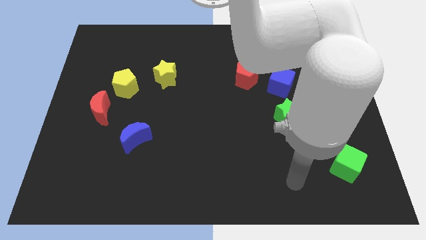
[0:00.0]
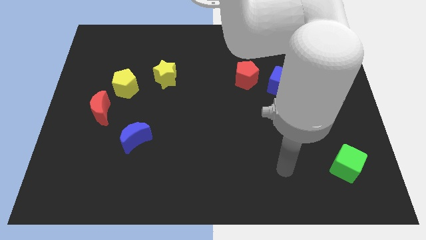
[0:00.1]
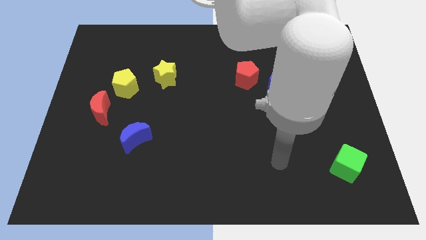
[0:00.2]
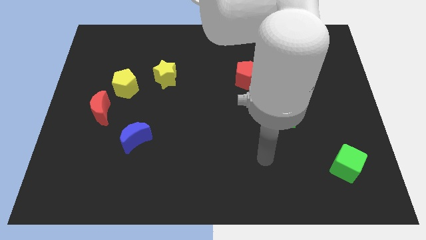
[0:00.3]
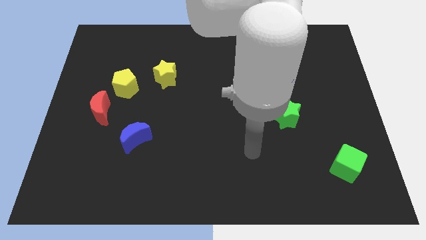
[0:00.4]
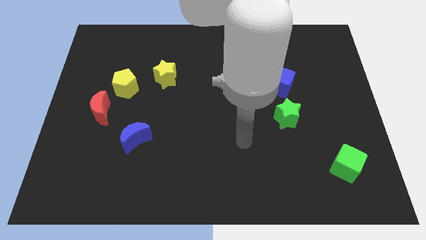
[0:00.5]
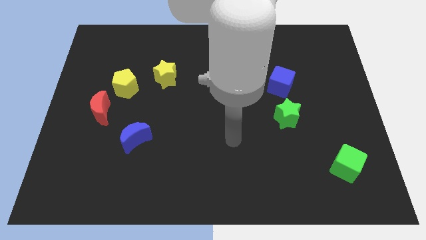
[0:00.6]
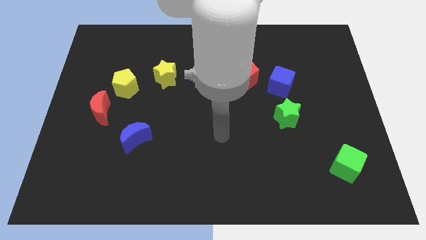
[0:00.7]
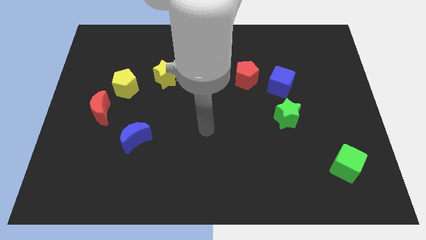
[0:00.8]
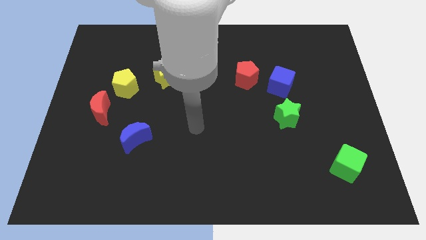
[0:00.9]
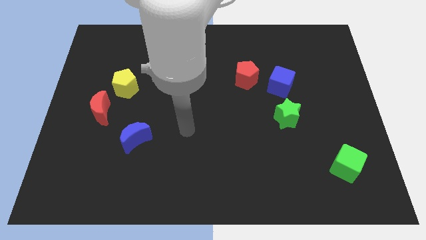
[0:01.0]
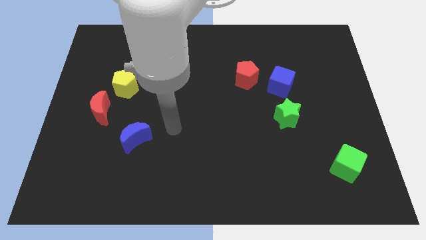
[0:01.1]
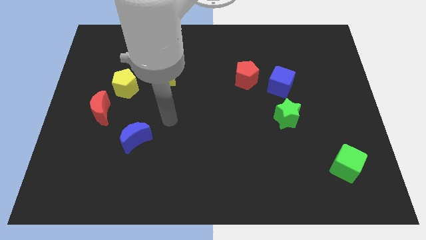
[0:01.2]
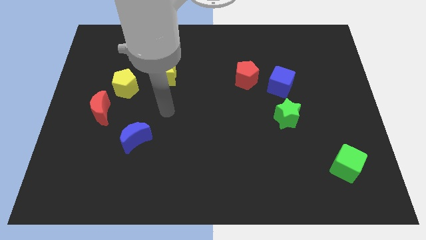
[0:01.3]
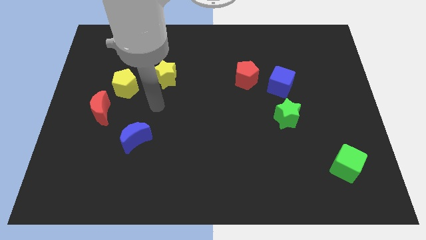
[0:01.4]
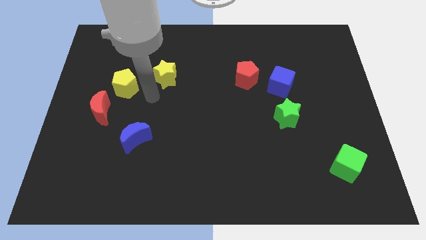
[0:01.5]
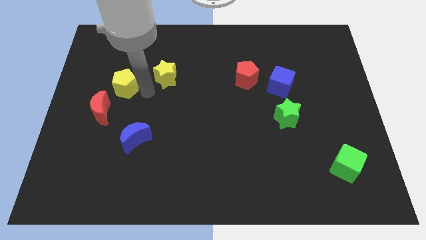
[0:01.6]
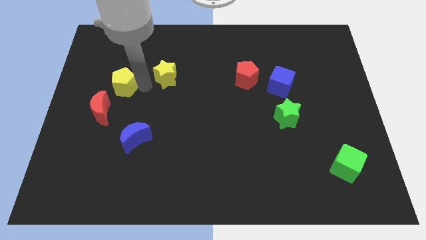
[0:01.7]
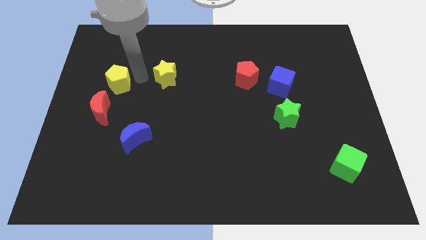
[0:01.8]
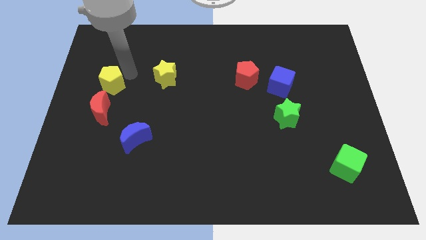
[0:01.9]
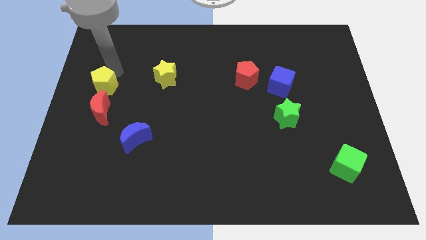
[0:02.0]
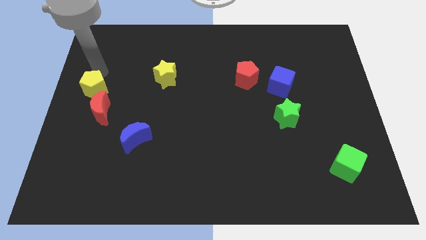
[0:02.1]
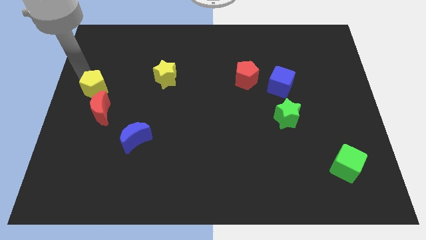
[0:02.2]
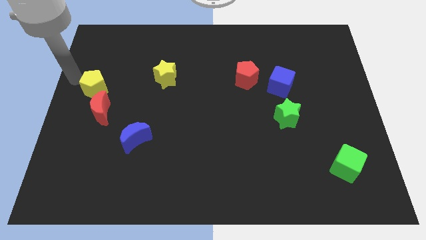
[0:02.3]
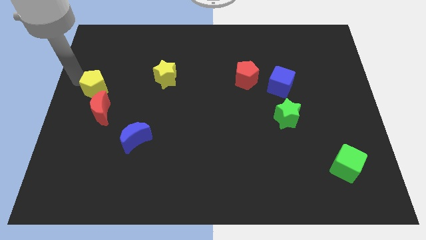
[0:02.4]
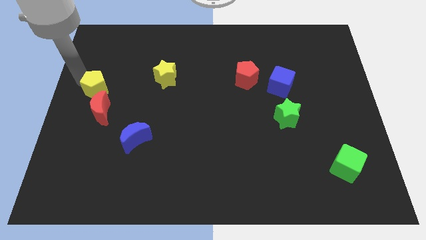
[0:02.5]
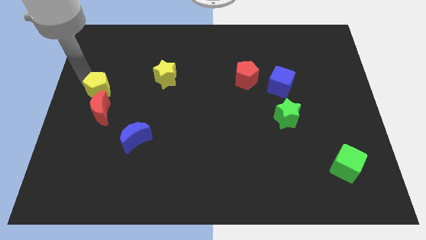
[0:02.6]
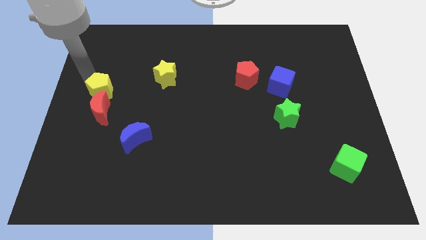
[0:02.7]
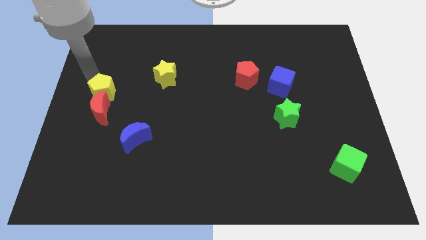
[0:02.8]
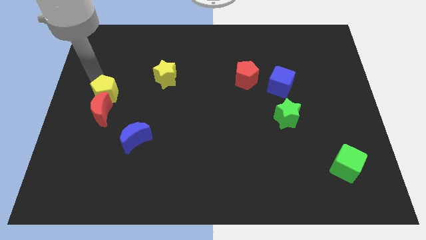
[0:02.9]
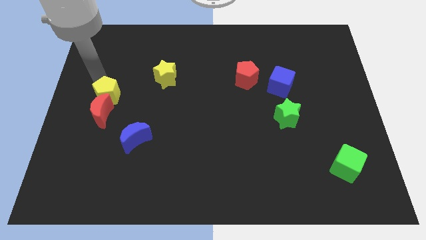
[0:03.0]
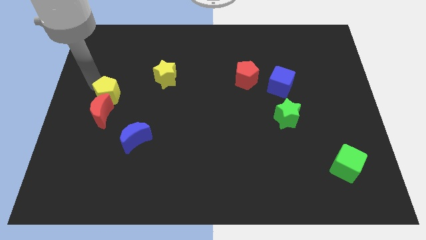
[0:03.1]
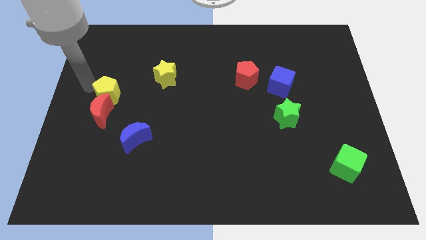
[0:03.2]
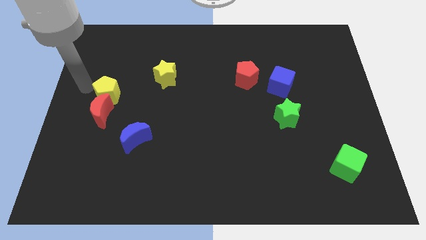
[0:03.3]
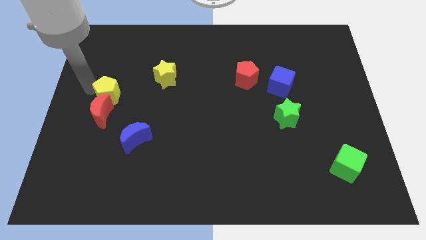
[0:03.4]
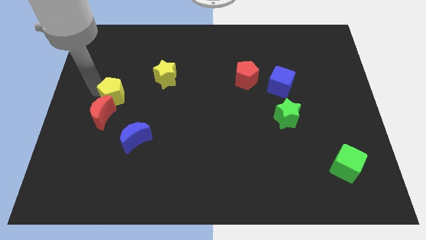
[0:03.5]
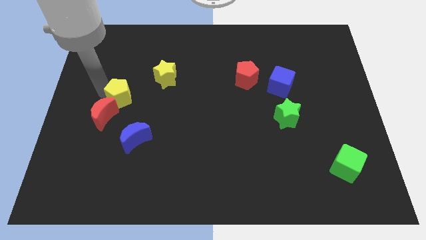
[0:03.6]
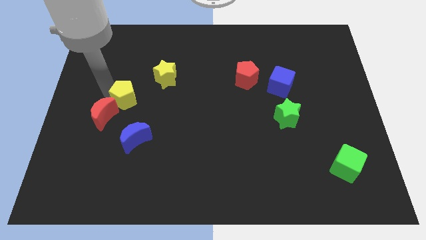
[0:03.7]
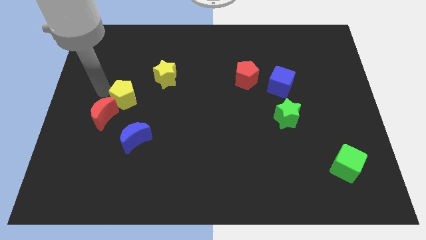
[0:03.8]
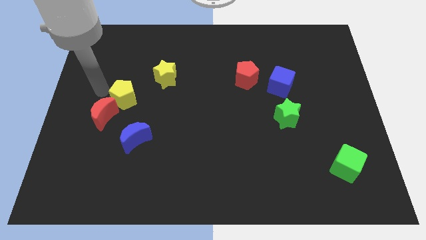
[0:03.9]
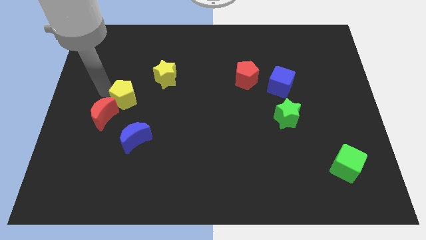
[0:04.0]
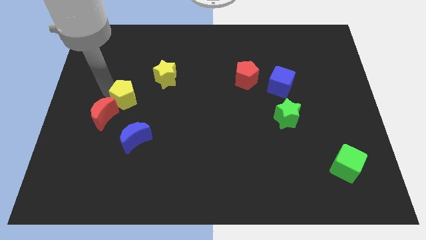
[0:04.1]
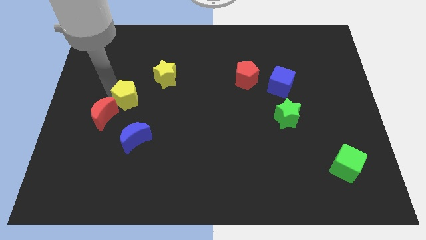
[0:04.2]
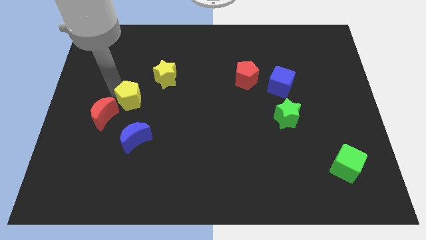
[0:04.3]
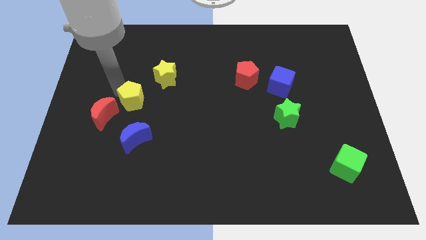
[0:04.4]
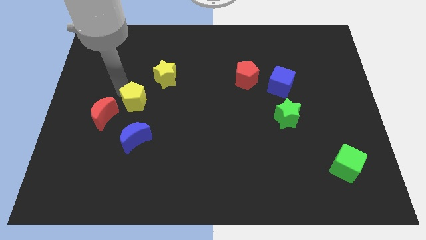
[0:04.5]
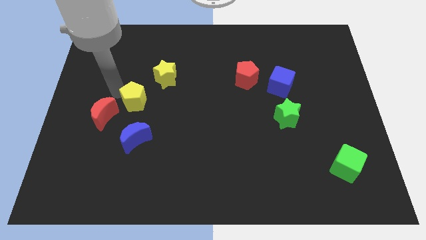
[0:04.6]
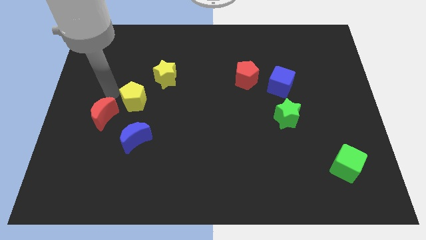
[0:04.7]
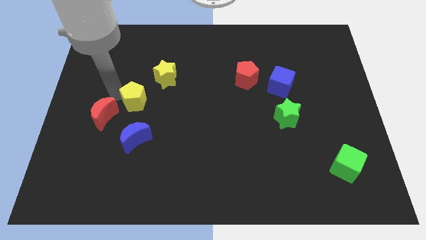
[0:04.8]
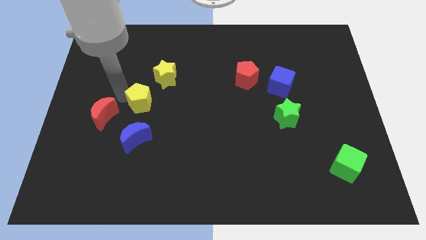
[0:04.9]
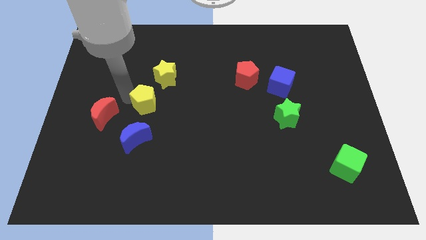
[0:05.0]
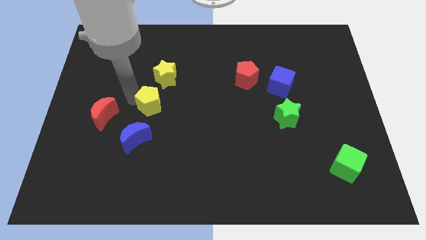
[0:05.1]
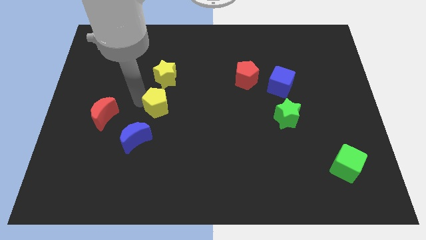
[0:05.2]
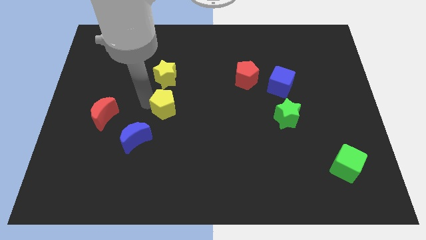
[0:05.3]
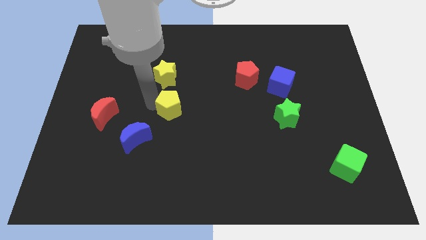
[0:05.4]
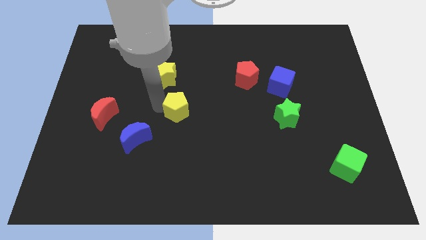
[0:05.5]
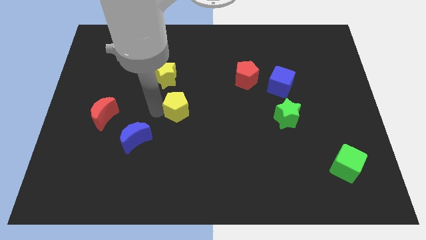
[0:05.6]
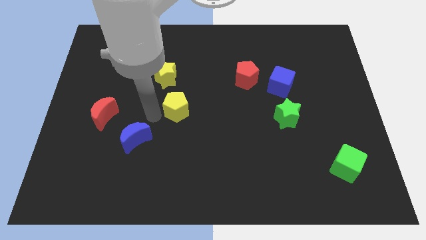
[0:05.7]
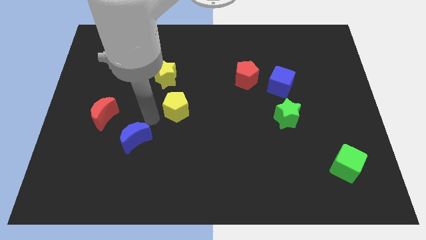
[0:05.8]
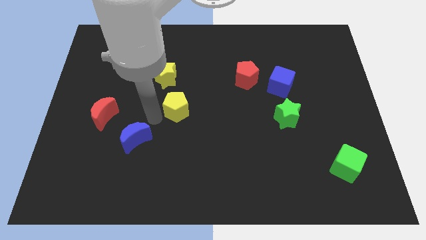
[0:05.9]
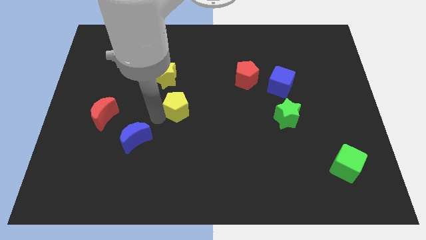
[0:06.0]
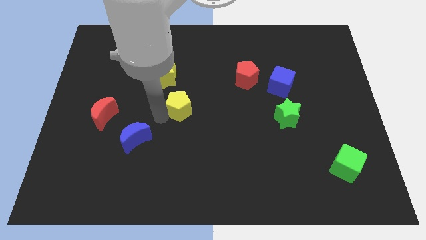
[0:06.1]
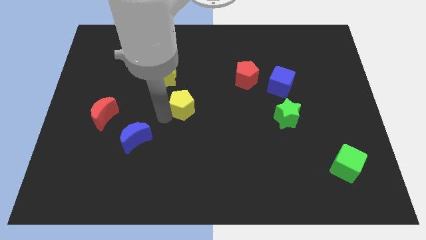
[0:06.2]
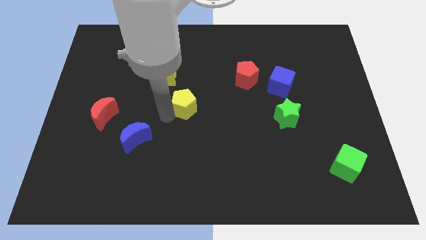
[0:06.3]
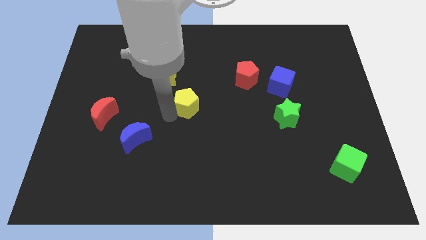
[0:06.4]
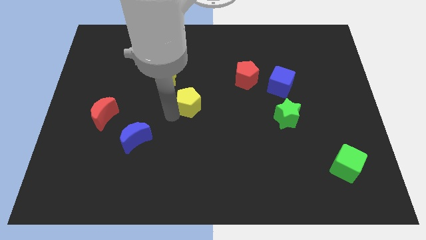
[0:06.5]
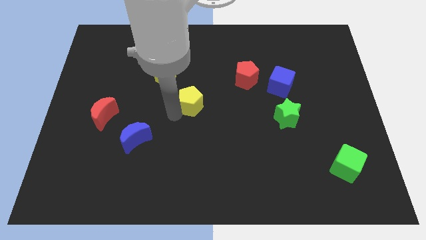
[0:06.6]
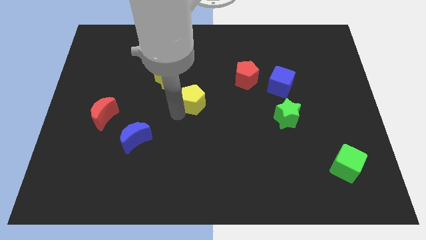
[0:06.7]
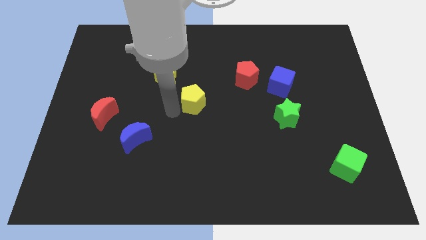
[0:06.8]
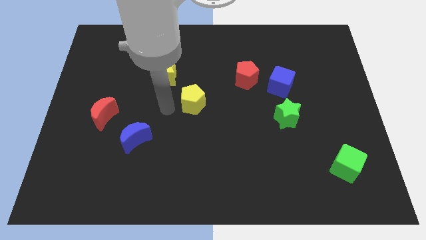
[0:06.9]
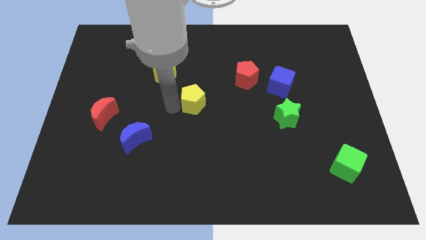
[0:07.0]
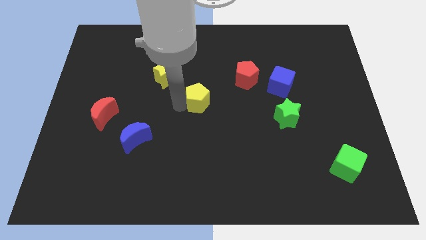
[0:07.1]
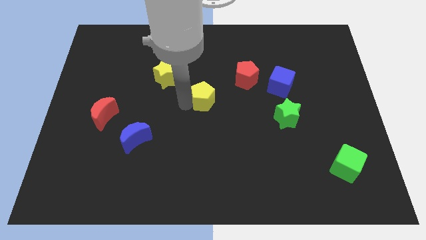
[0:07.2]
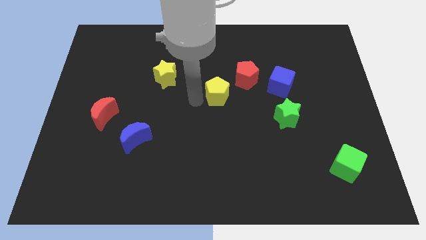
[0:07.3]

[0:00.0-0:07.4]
move the yellow pentagon to the right

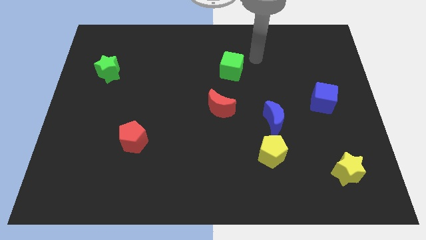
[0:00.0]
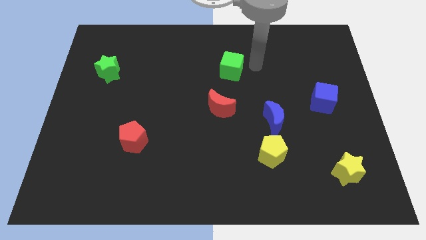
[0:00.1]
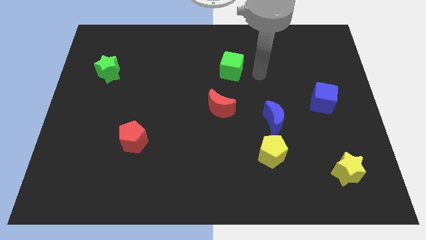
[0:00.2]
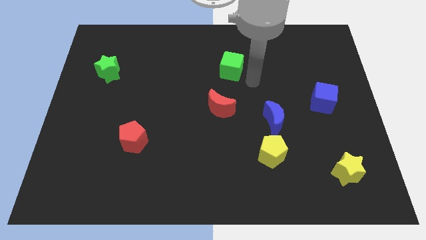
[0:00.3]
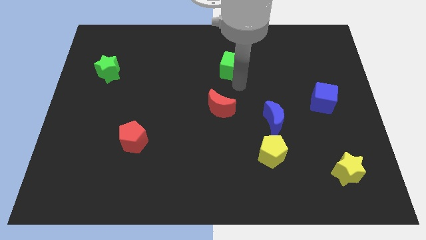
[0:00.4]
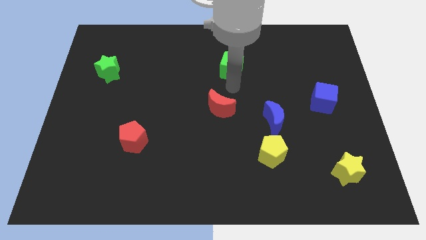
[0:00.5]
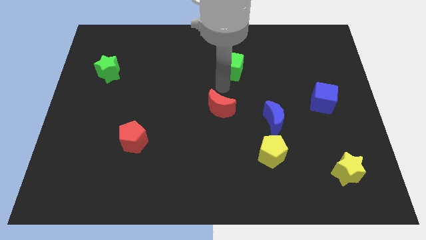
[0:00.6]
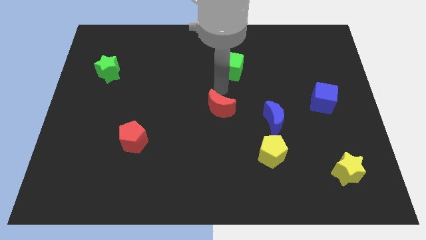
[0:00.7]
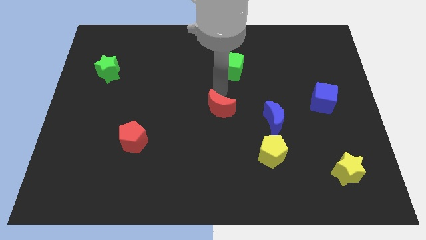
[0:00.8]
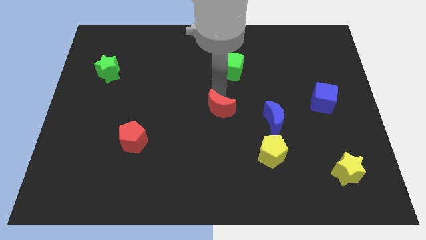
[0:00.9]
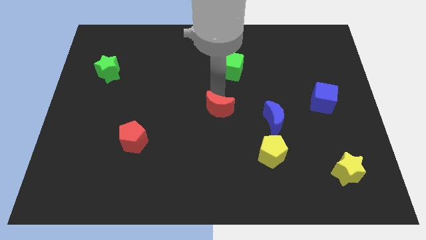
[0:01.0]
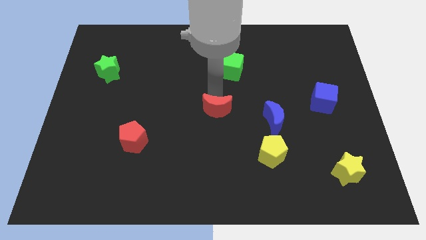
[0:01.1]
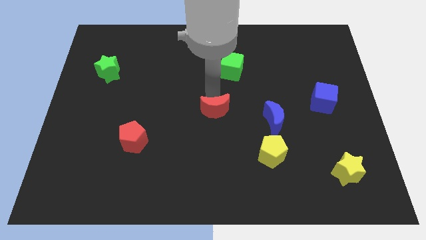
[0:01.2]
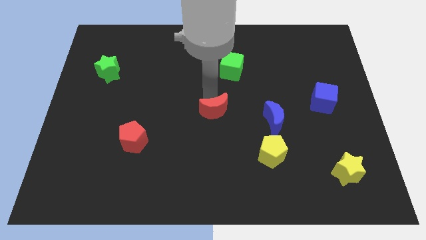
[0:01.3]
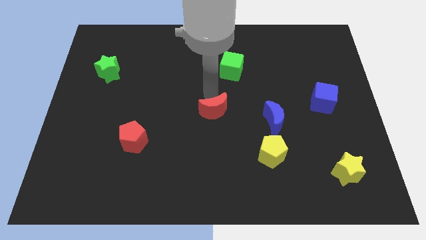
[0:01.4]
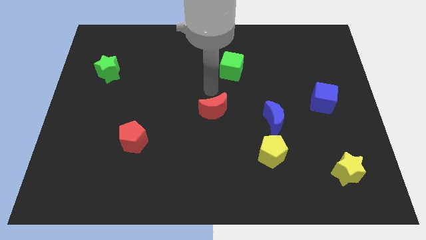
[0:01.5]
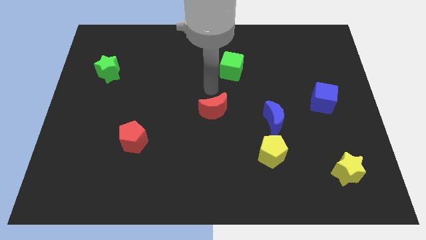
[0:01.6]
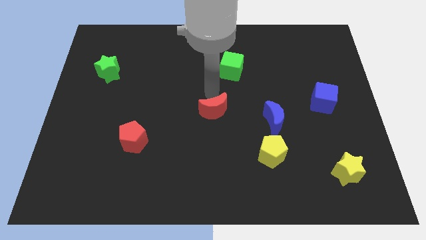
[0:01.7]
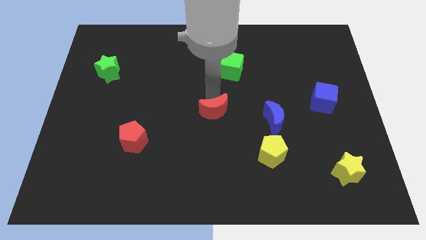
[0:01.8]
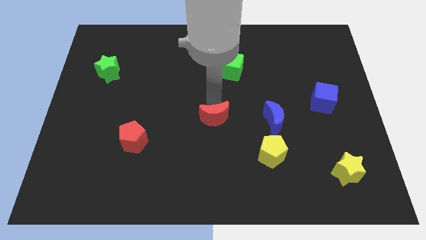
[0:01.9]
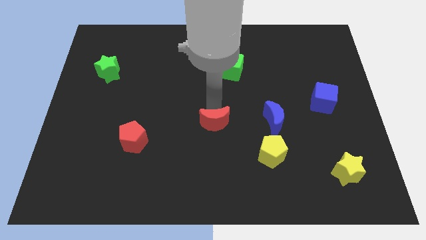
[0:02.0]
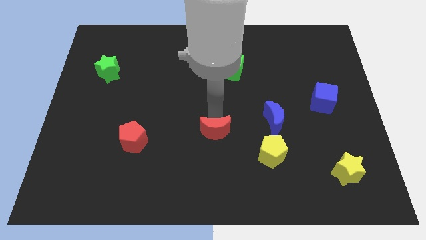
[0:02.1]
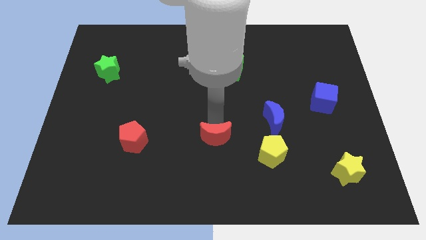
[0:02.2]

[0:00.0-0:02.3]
slightly move the red moon down
